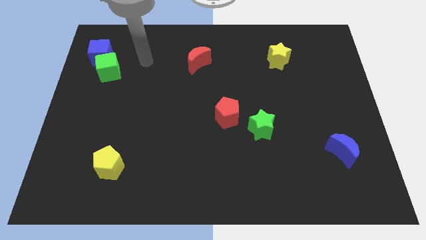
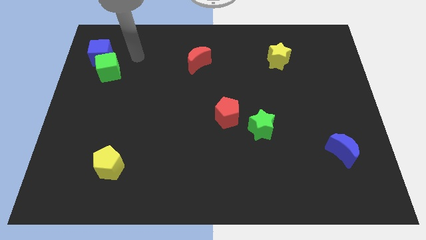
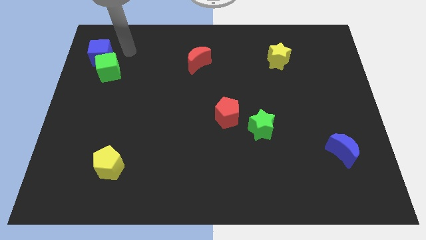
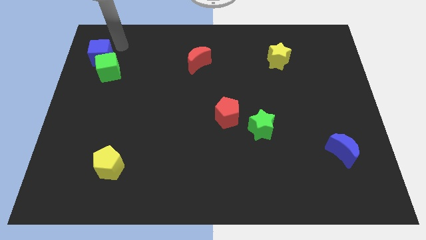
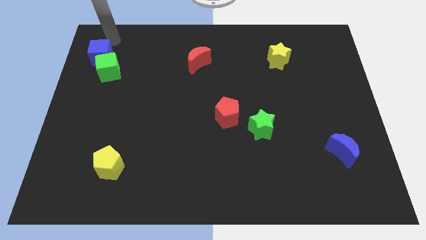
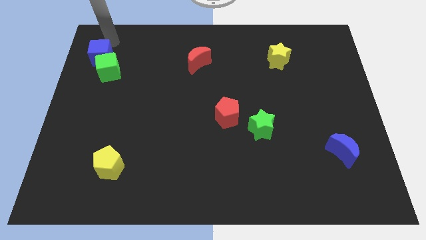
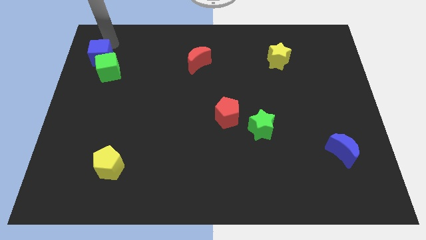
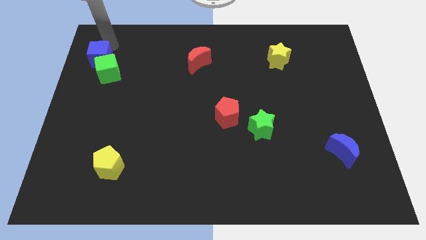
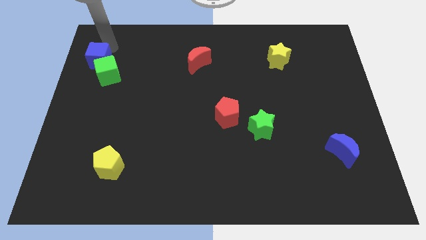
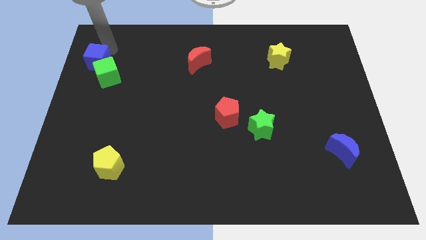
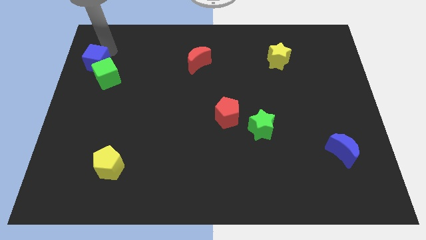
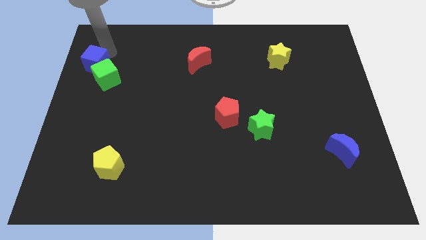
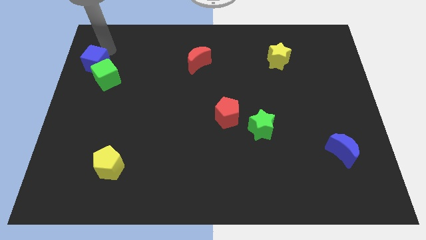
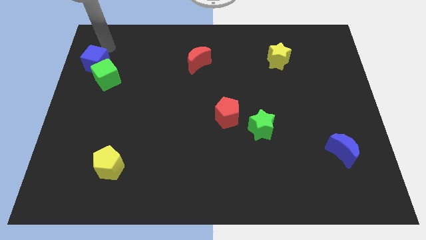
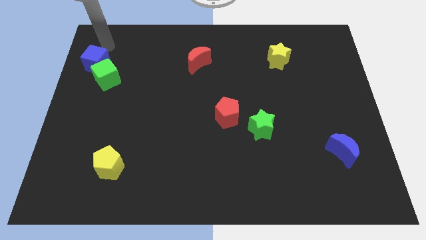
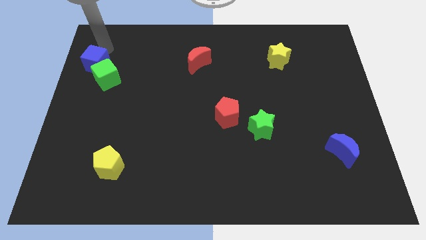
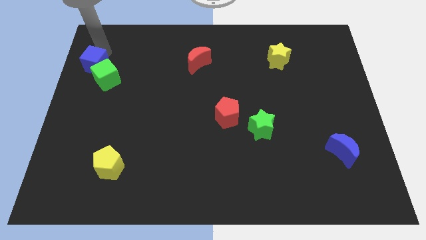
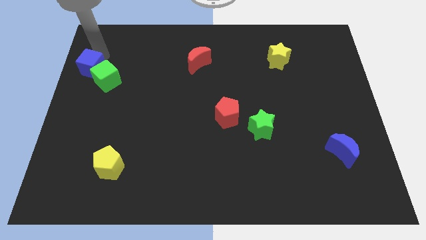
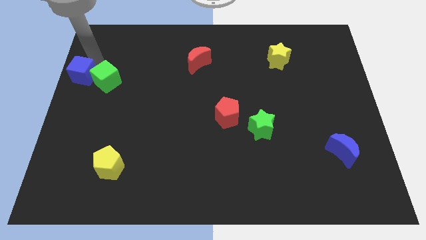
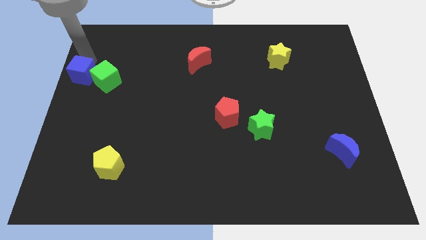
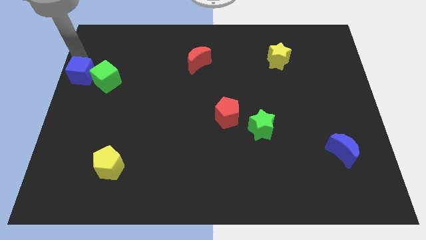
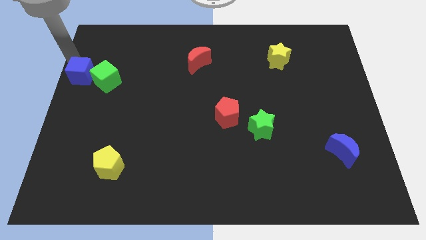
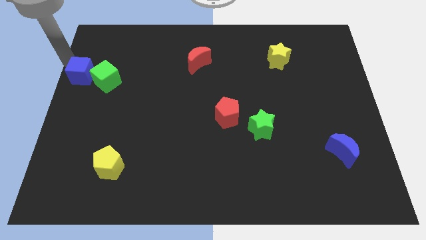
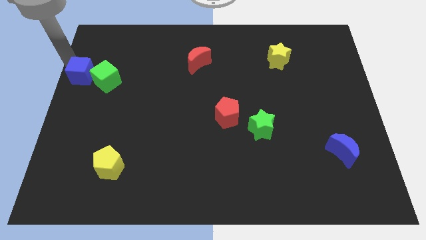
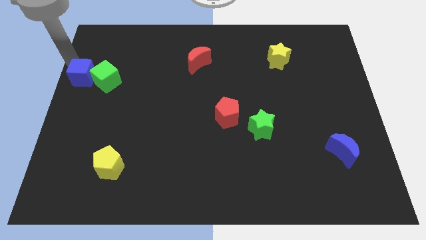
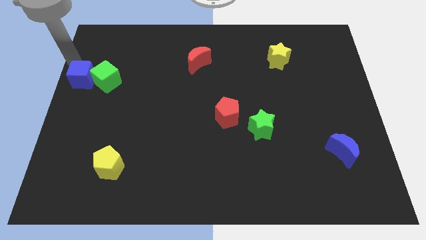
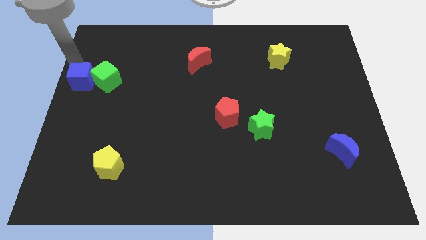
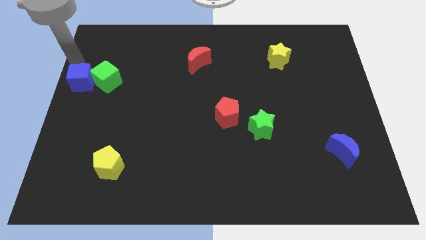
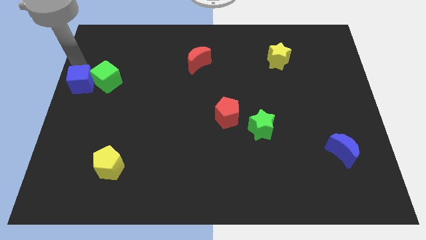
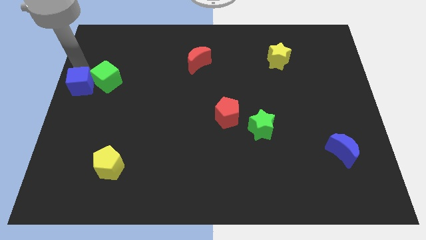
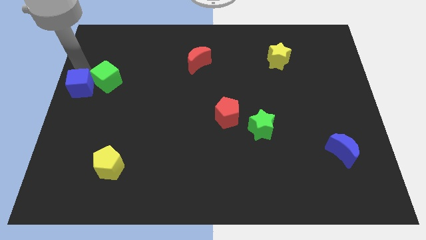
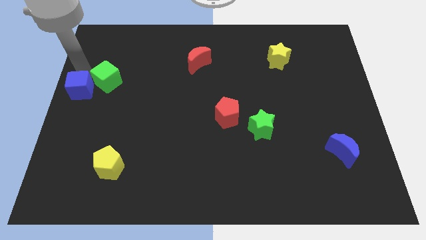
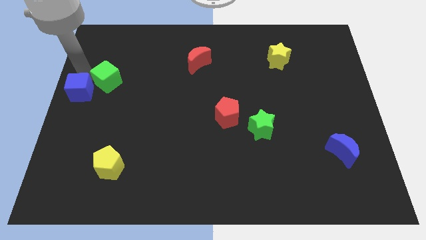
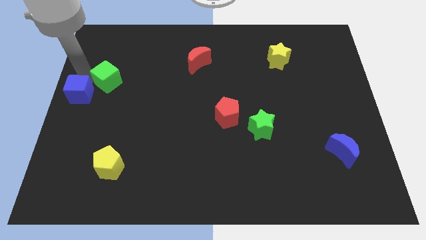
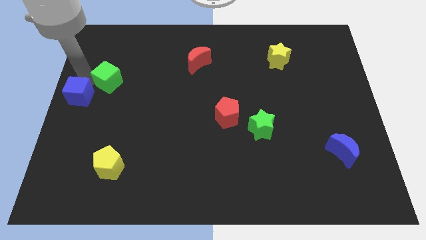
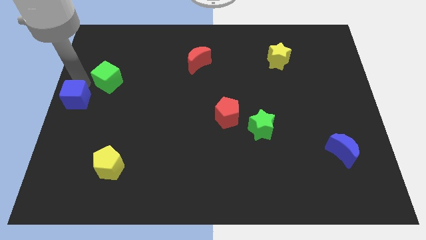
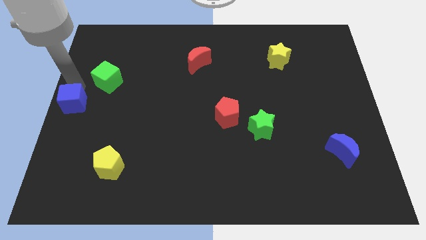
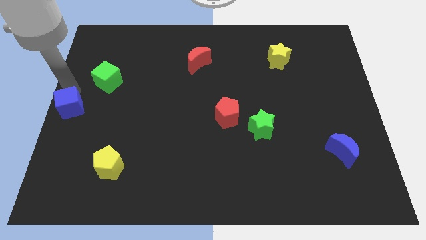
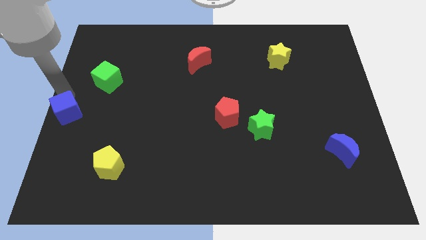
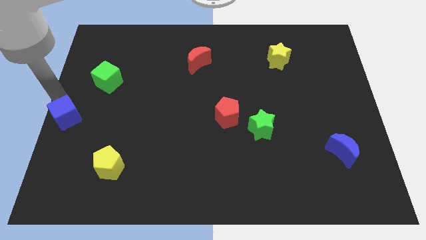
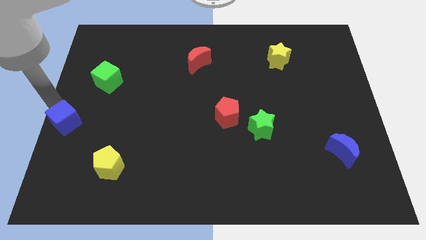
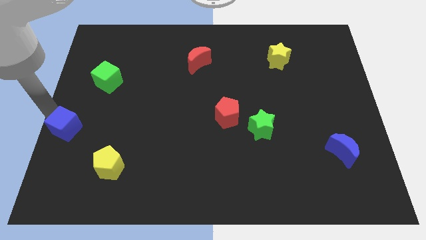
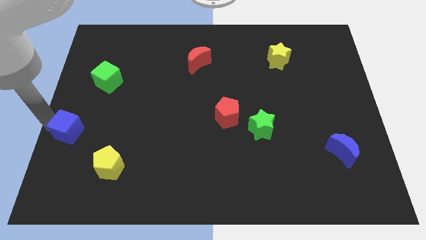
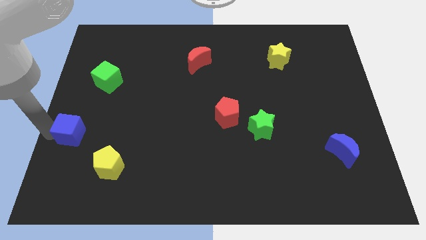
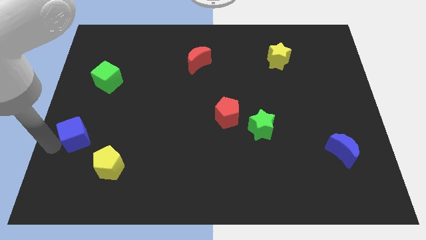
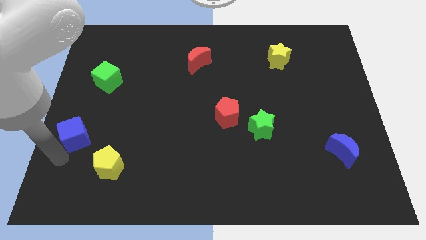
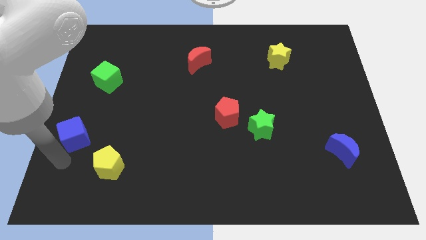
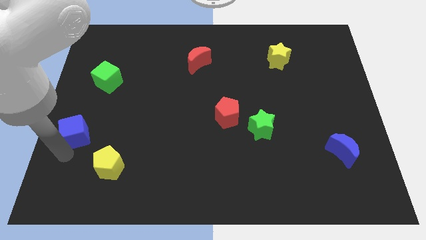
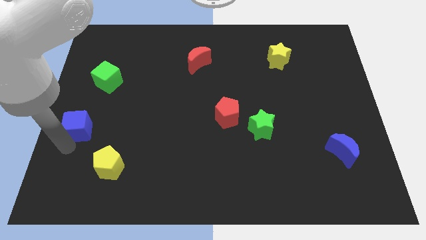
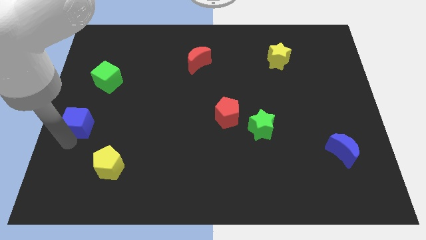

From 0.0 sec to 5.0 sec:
put the blue cube below the green cube

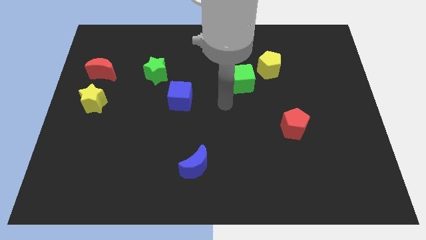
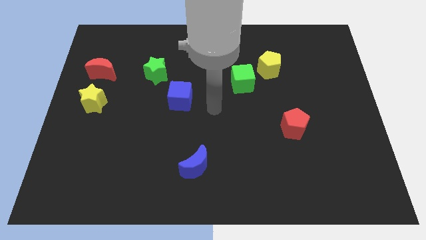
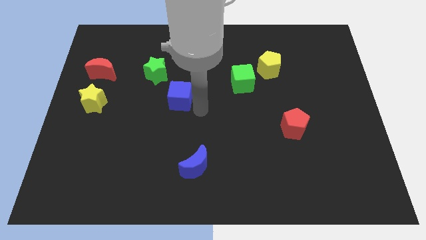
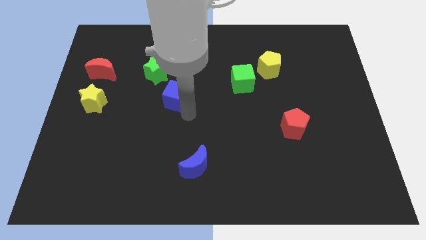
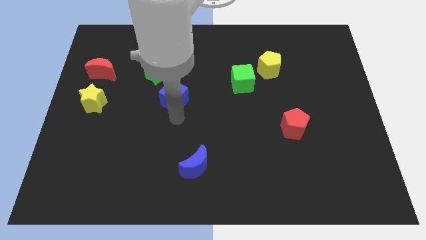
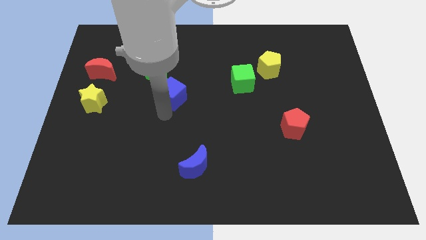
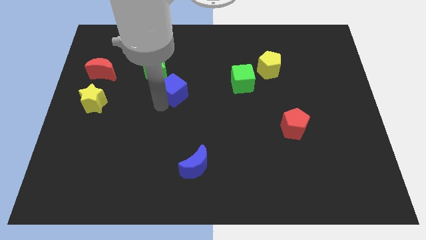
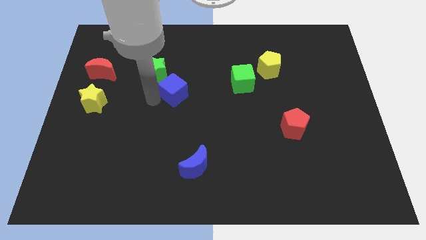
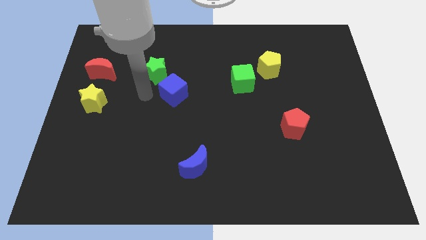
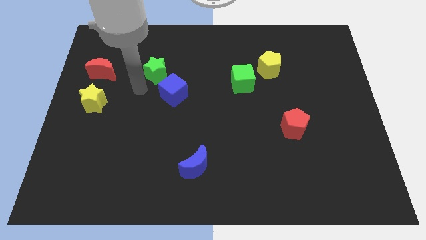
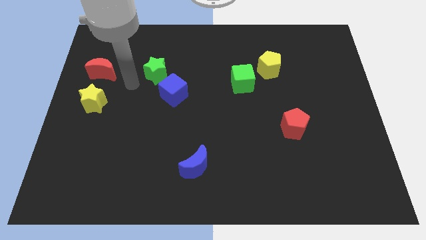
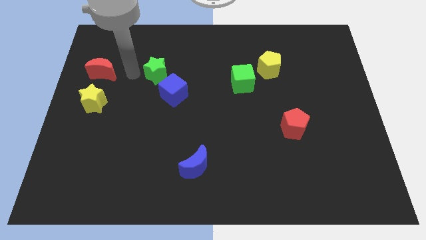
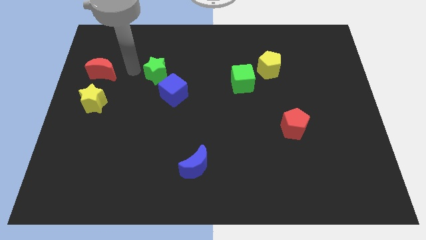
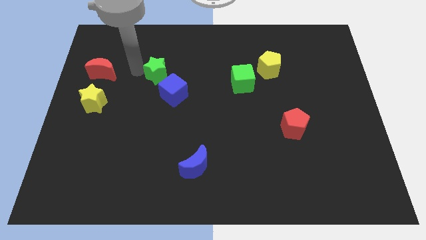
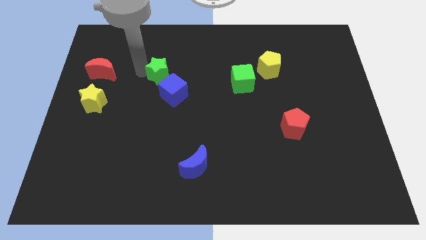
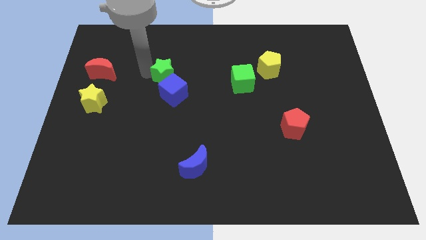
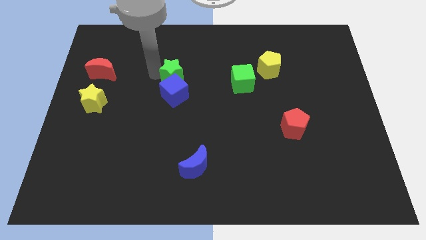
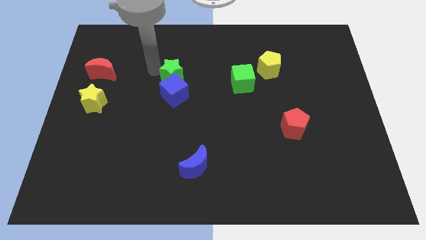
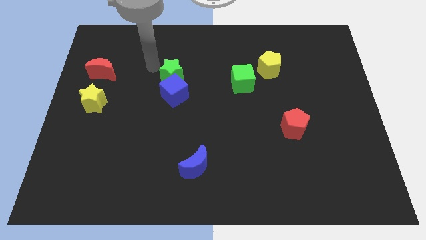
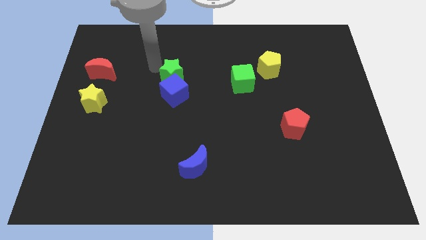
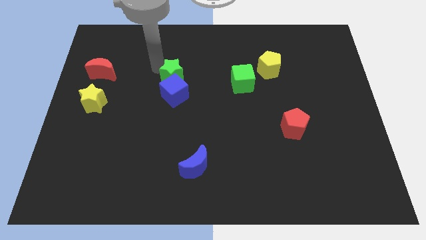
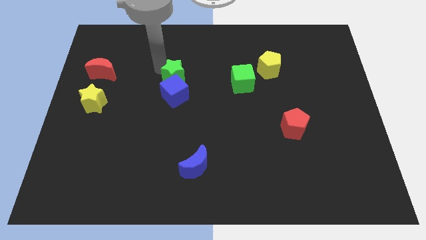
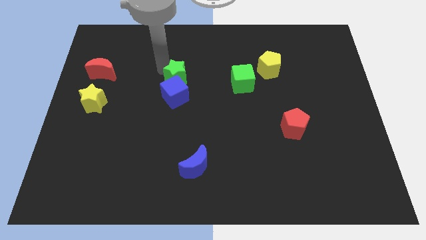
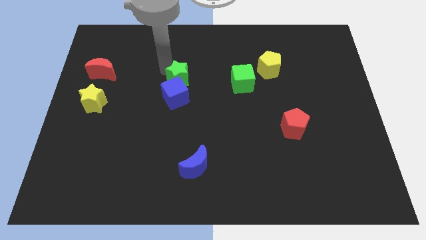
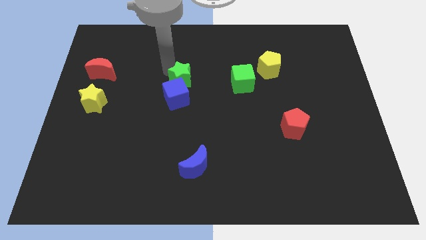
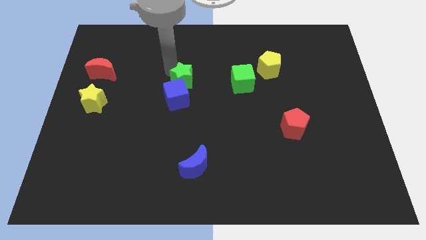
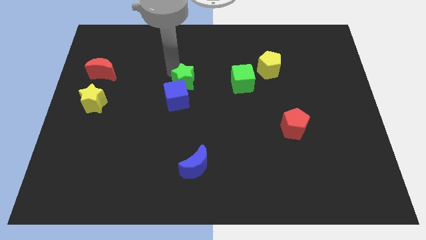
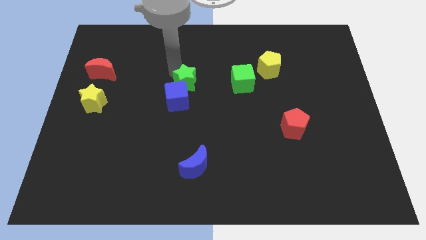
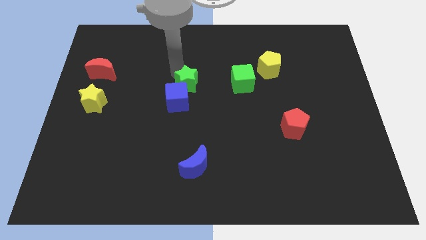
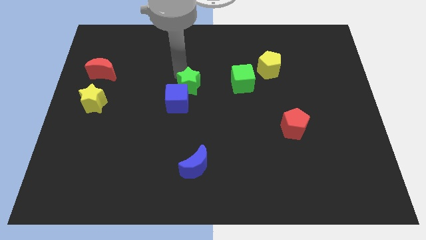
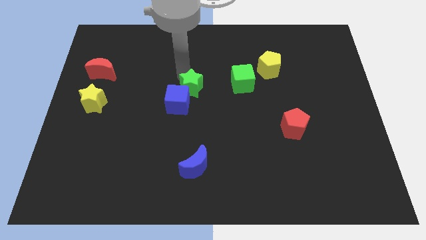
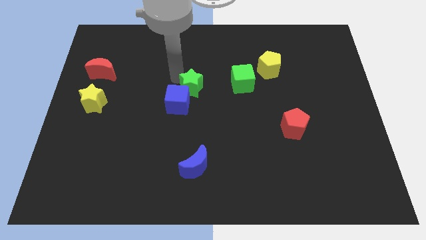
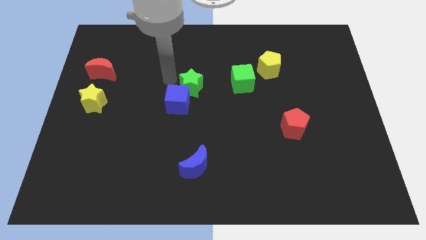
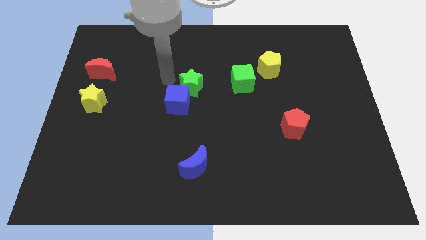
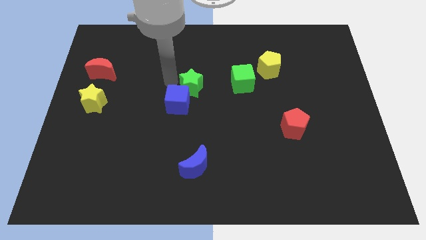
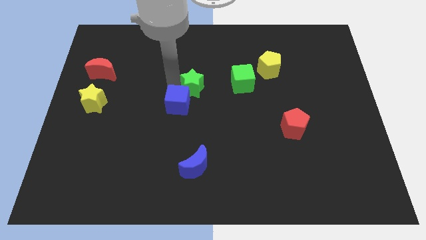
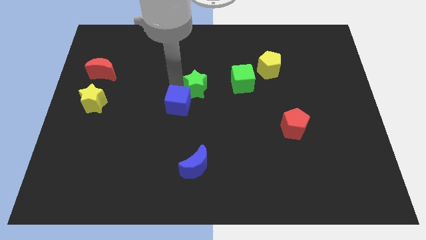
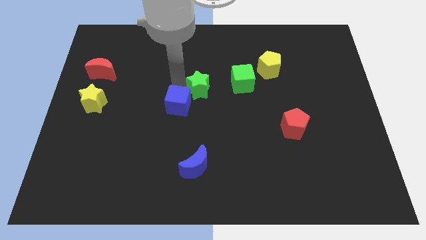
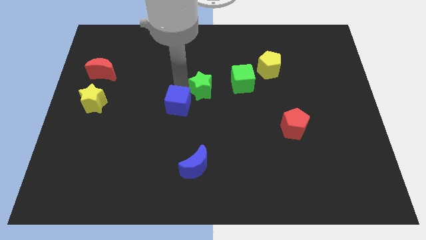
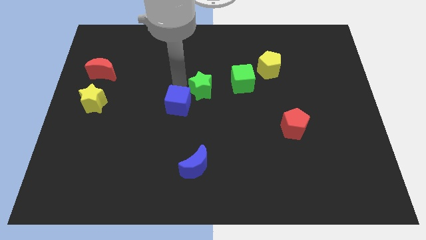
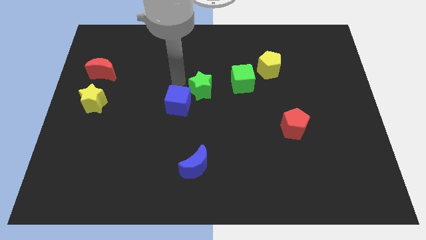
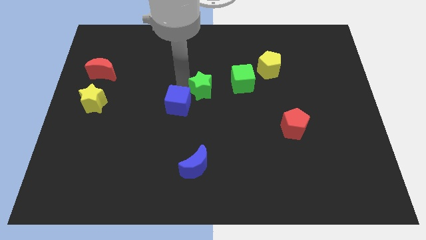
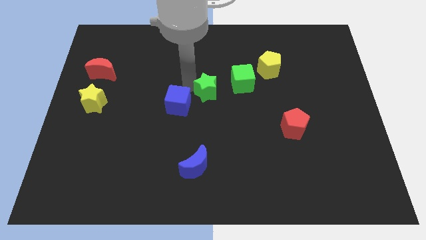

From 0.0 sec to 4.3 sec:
move the green star diagonally down and to the left of the green cube
